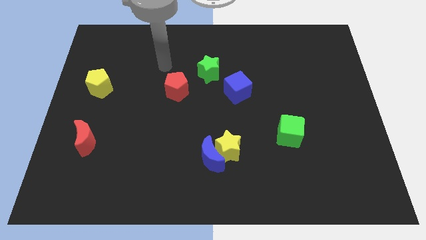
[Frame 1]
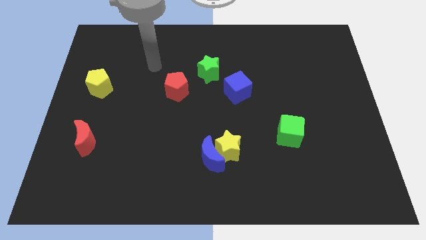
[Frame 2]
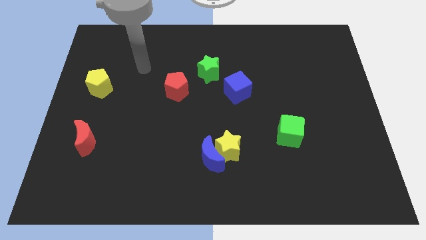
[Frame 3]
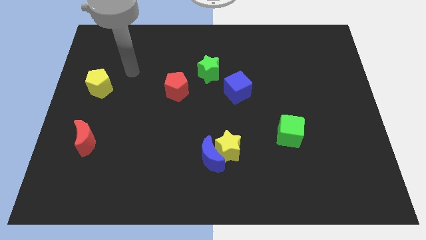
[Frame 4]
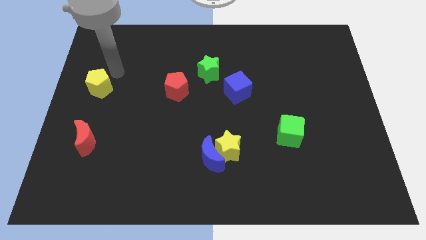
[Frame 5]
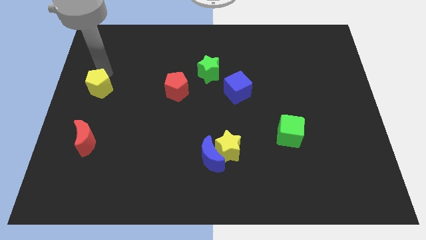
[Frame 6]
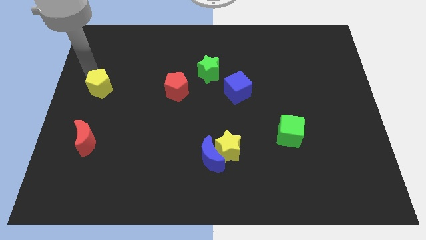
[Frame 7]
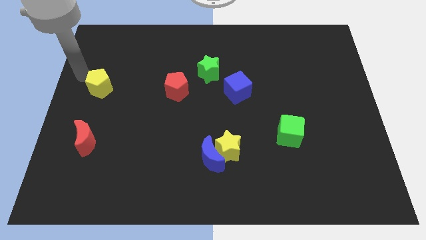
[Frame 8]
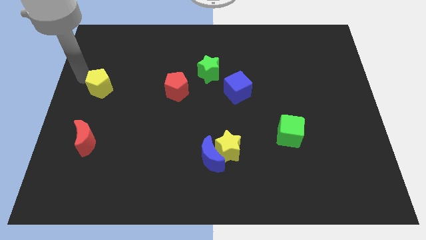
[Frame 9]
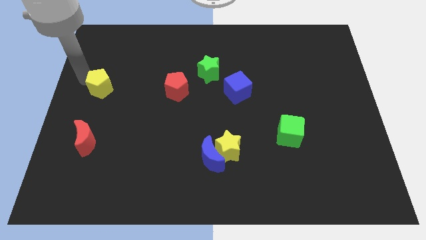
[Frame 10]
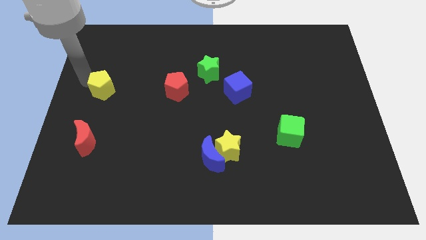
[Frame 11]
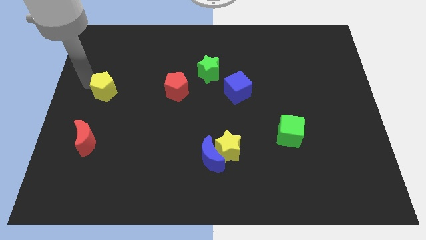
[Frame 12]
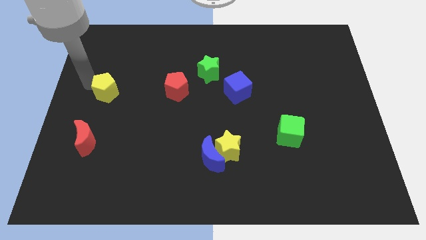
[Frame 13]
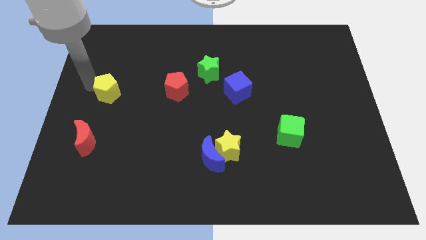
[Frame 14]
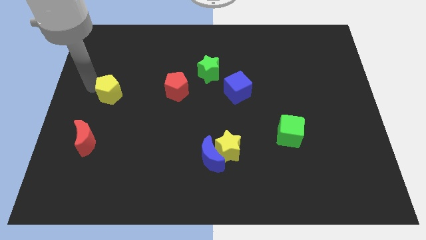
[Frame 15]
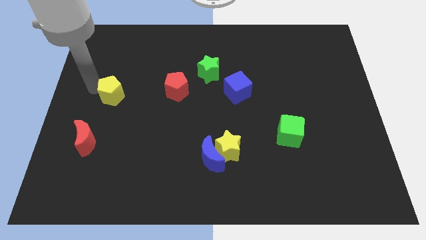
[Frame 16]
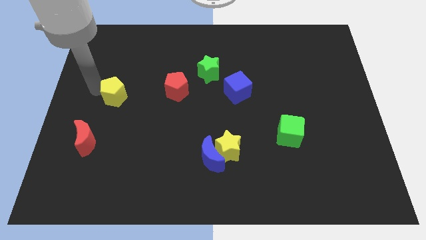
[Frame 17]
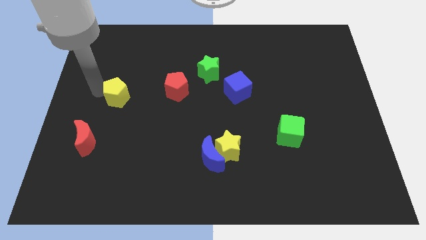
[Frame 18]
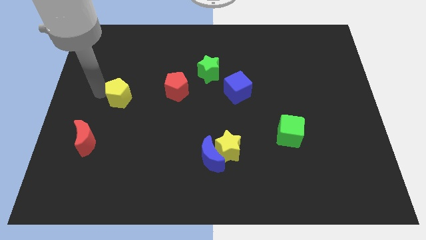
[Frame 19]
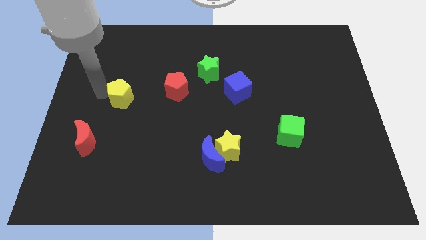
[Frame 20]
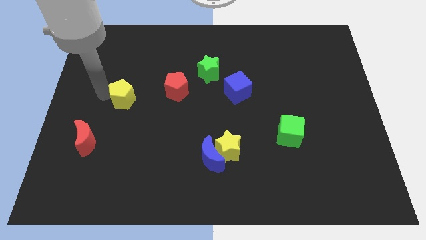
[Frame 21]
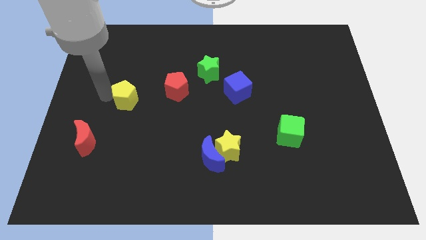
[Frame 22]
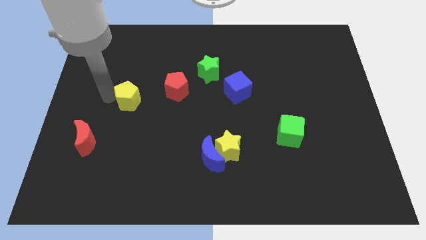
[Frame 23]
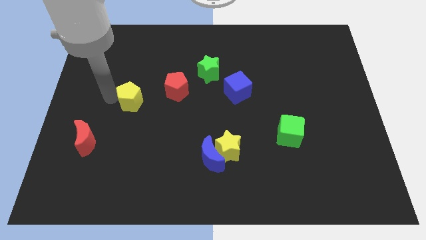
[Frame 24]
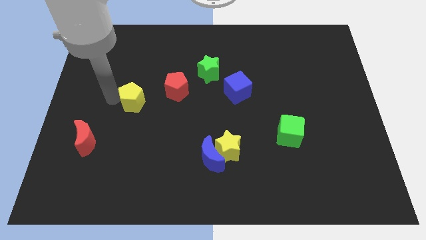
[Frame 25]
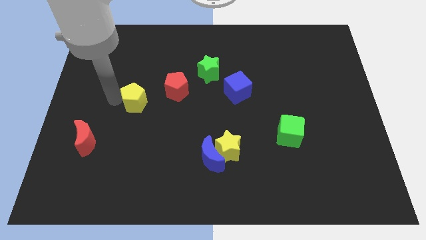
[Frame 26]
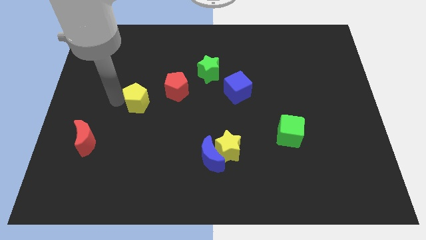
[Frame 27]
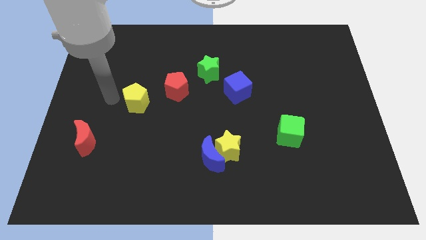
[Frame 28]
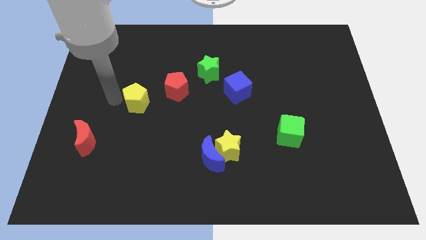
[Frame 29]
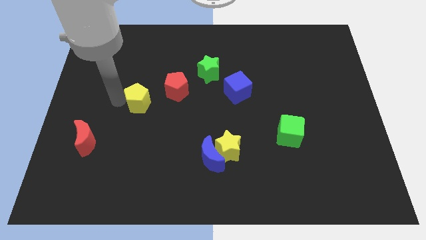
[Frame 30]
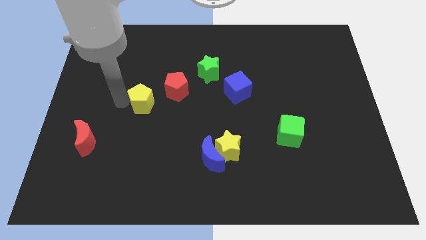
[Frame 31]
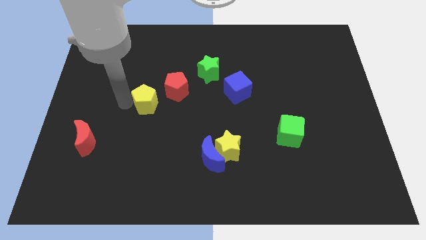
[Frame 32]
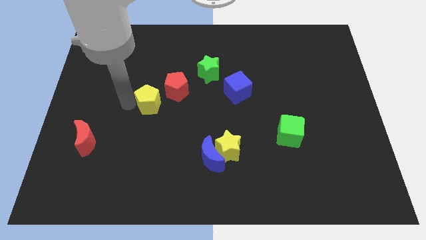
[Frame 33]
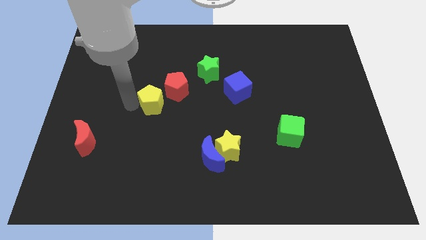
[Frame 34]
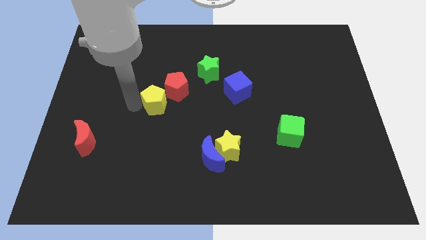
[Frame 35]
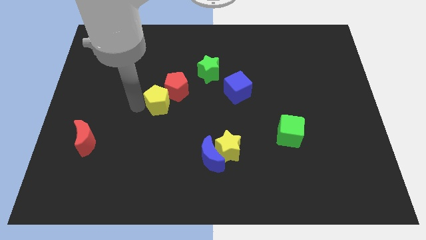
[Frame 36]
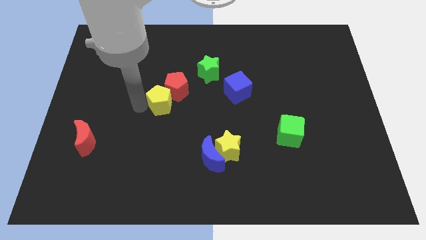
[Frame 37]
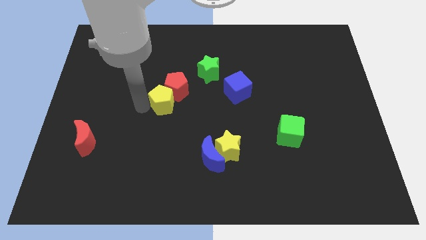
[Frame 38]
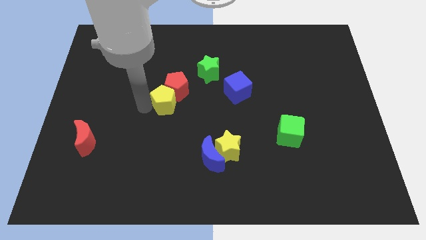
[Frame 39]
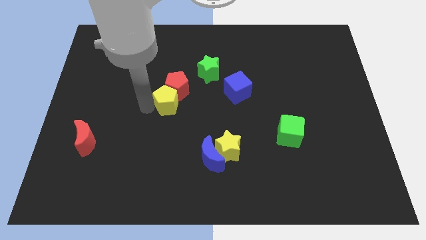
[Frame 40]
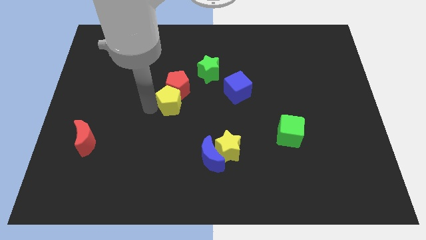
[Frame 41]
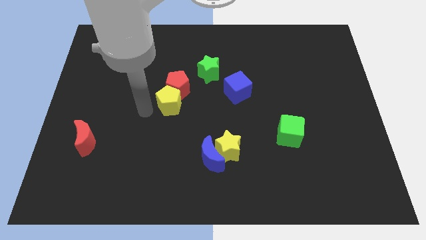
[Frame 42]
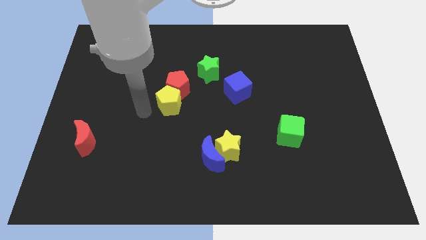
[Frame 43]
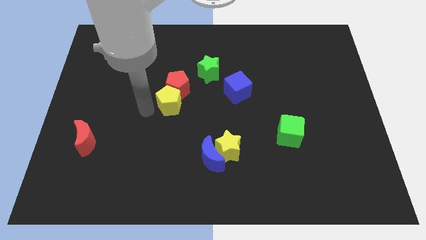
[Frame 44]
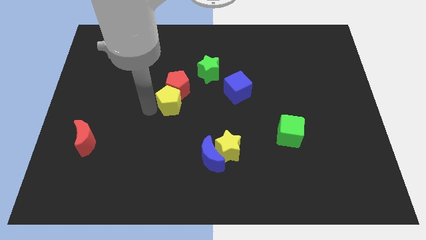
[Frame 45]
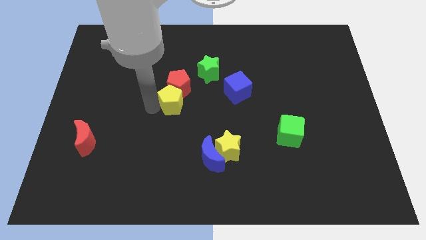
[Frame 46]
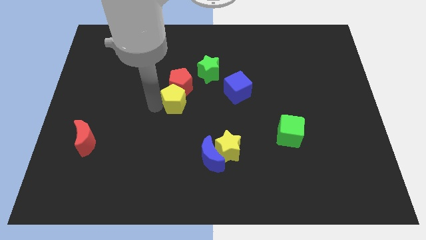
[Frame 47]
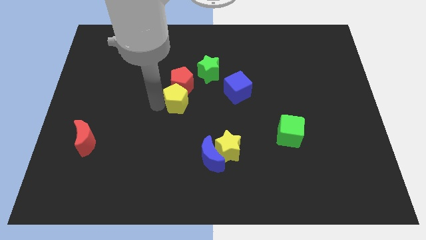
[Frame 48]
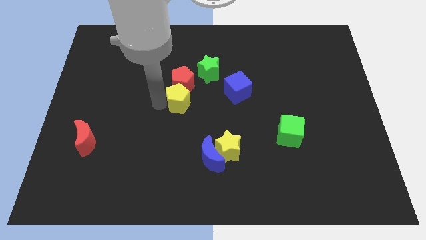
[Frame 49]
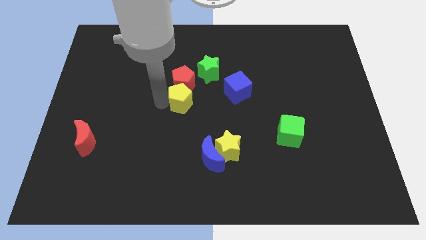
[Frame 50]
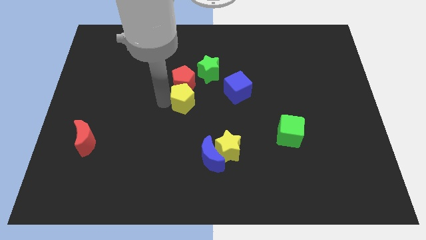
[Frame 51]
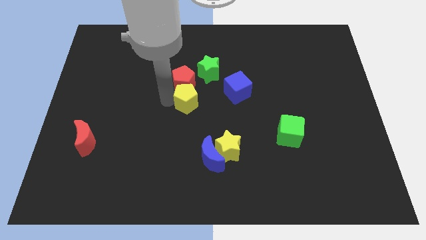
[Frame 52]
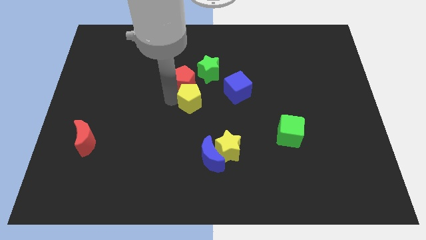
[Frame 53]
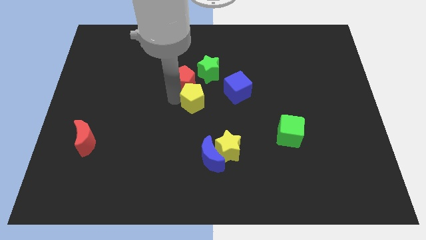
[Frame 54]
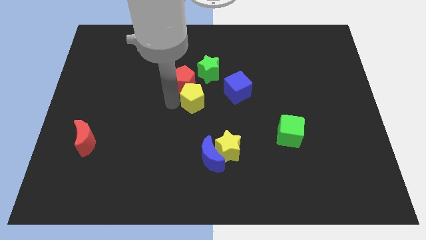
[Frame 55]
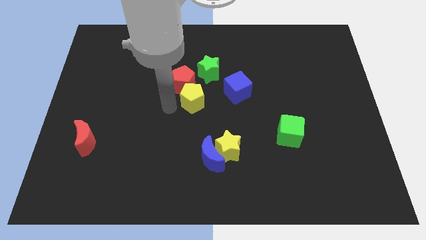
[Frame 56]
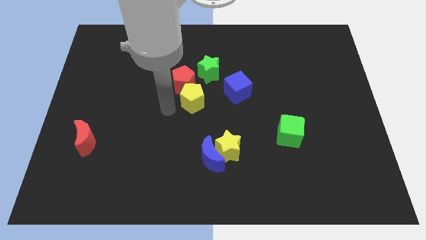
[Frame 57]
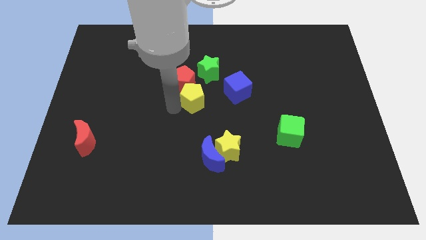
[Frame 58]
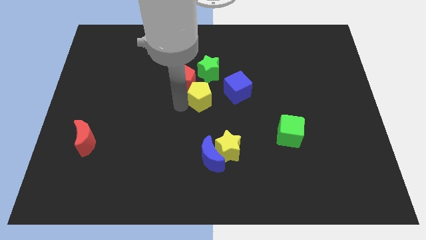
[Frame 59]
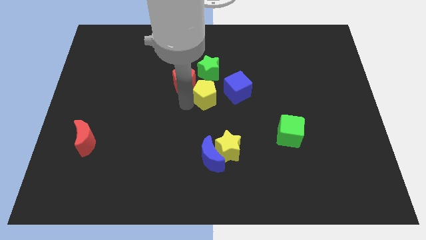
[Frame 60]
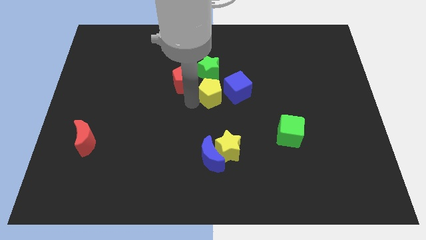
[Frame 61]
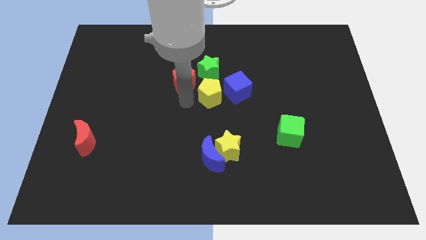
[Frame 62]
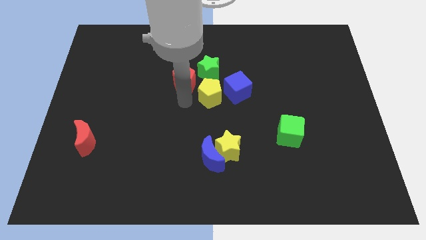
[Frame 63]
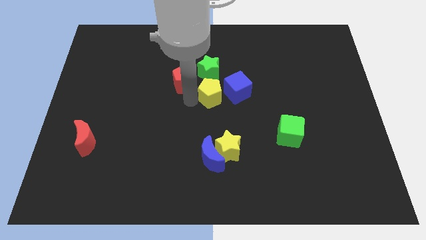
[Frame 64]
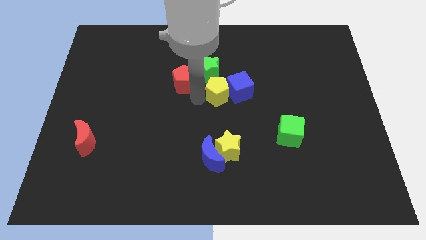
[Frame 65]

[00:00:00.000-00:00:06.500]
move the yellow pentagon towards the blue cube

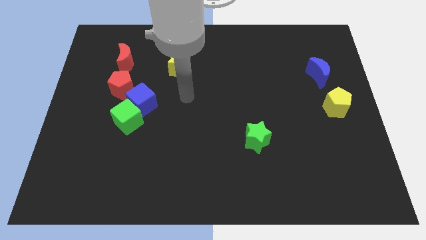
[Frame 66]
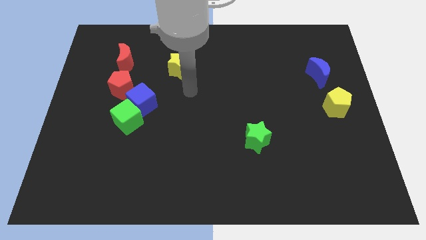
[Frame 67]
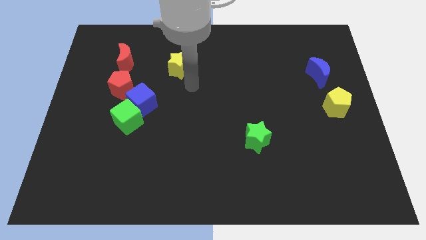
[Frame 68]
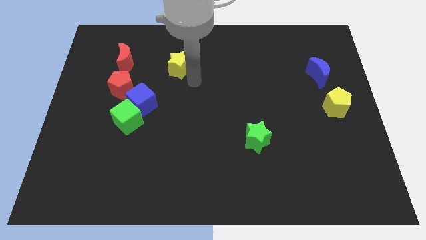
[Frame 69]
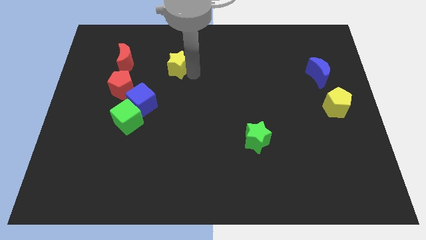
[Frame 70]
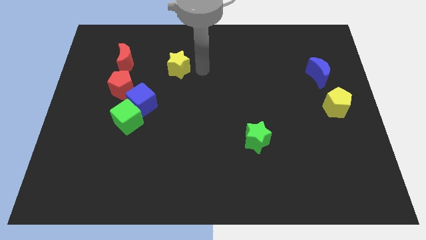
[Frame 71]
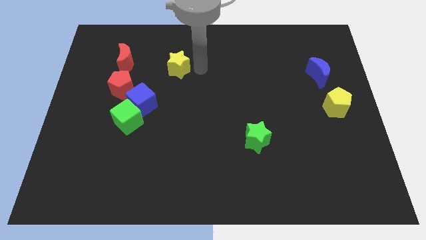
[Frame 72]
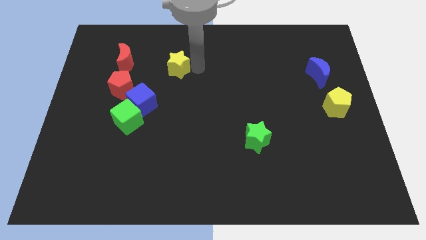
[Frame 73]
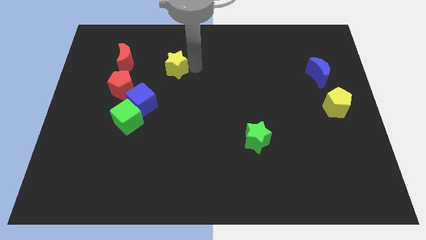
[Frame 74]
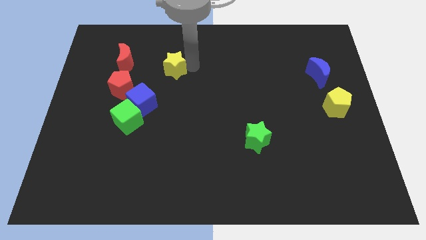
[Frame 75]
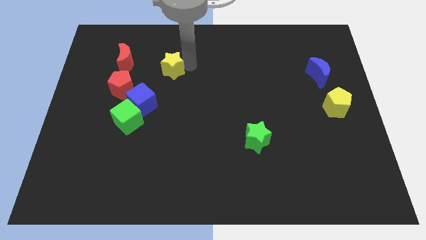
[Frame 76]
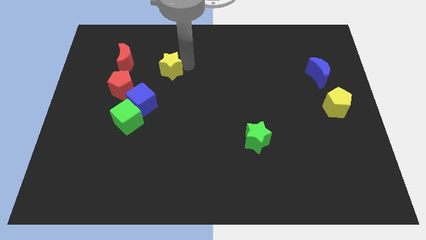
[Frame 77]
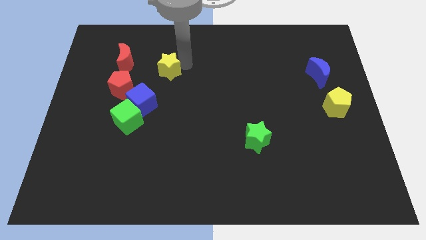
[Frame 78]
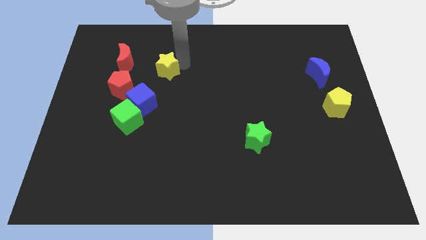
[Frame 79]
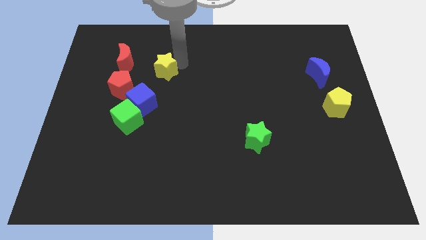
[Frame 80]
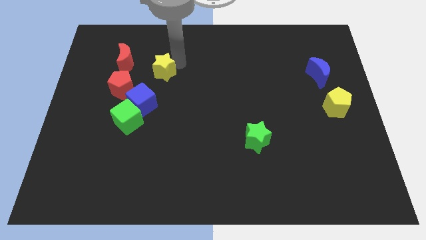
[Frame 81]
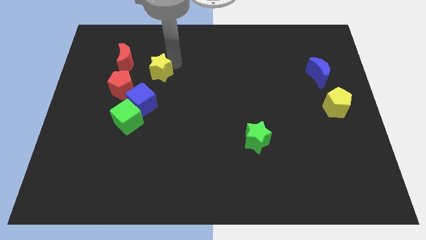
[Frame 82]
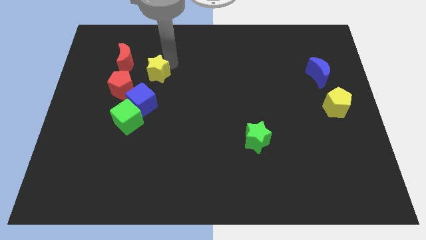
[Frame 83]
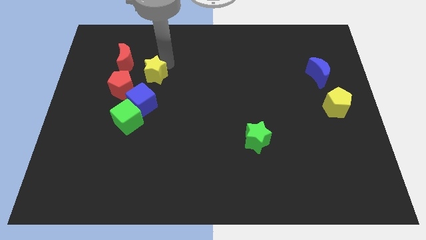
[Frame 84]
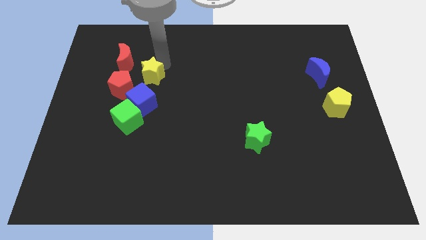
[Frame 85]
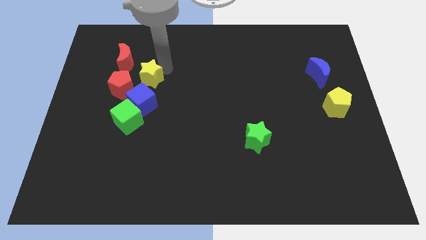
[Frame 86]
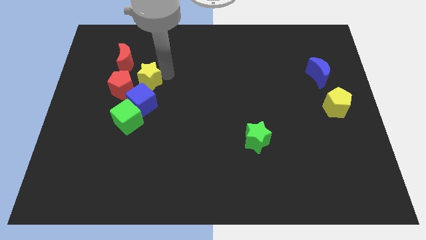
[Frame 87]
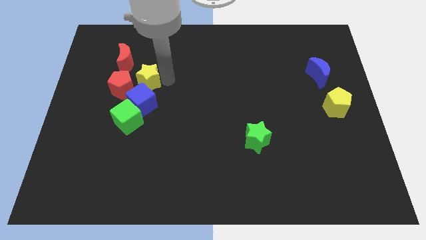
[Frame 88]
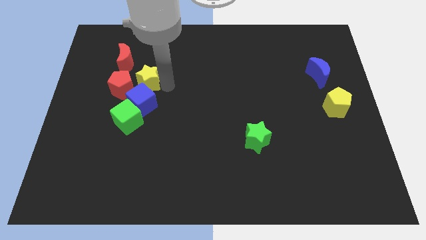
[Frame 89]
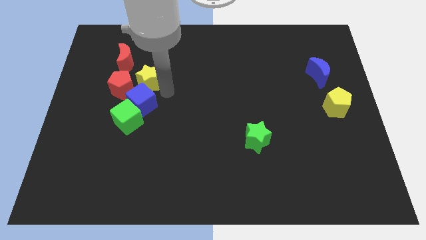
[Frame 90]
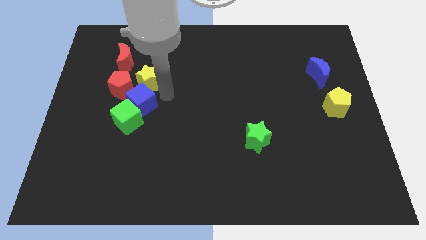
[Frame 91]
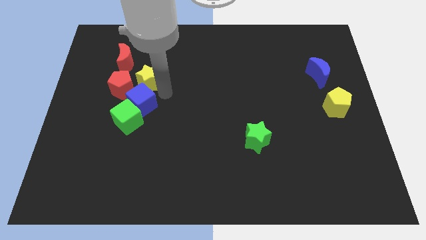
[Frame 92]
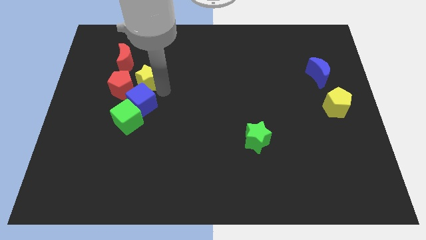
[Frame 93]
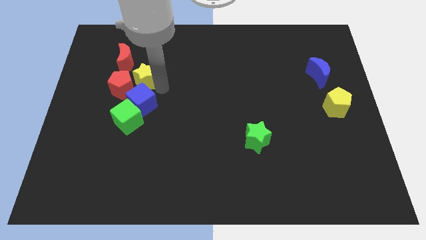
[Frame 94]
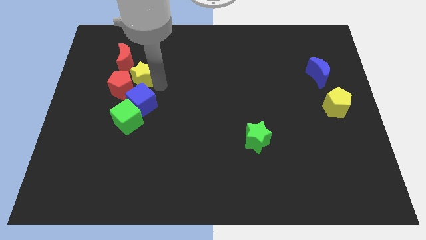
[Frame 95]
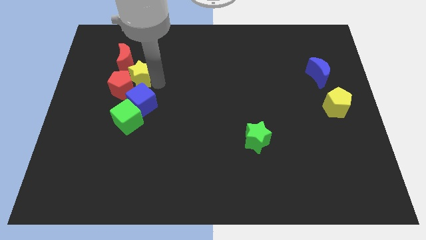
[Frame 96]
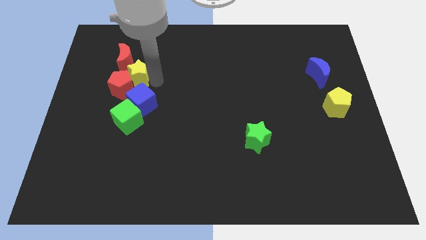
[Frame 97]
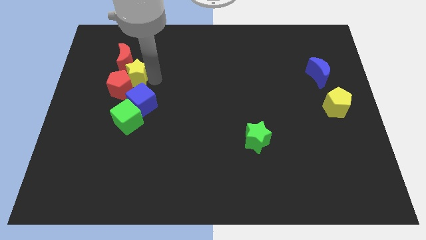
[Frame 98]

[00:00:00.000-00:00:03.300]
move the yellow star close to the red moon
